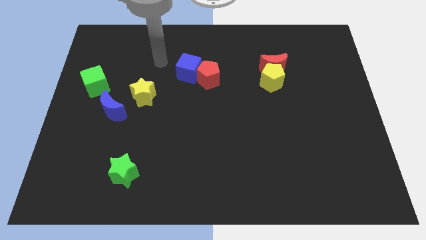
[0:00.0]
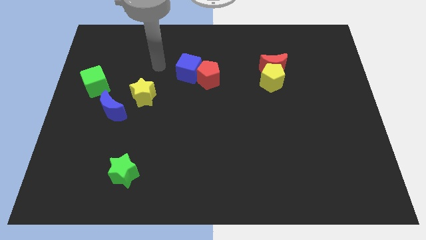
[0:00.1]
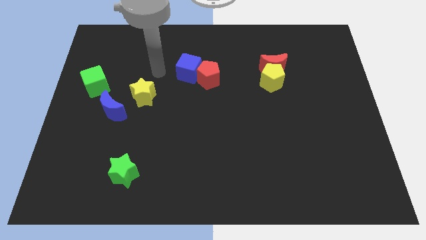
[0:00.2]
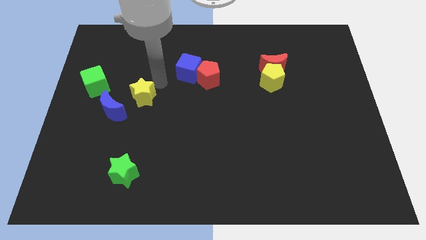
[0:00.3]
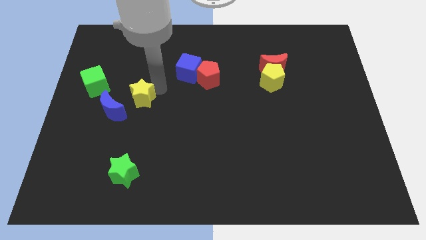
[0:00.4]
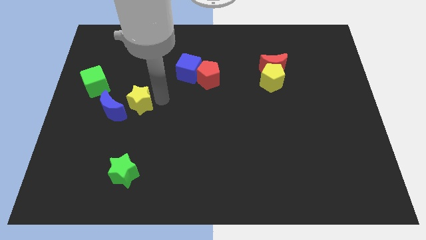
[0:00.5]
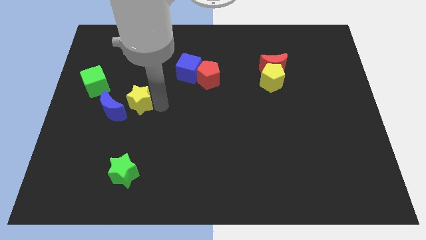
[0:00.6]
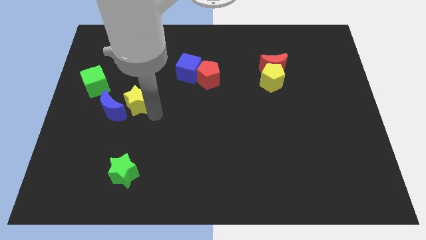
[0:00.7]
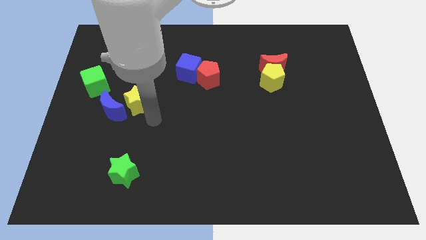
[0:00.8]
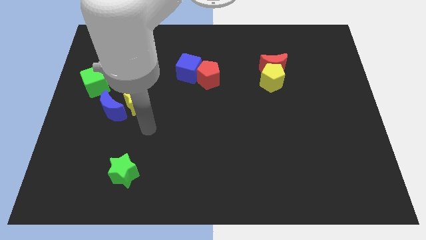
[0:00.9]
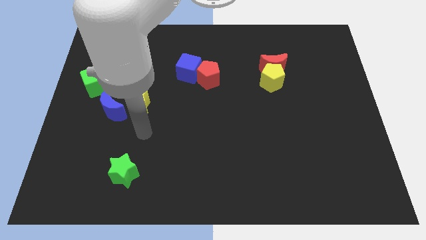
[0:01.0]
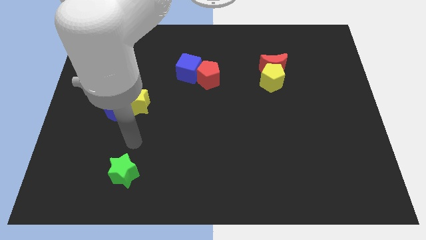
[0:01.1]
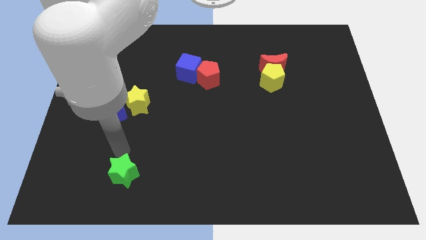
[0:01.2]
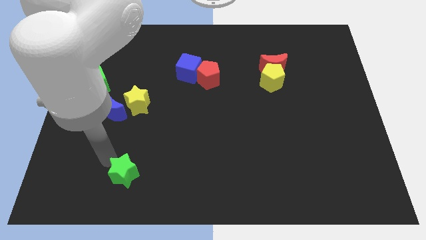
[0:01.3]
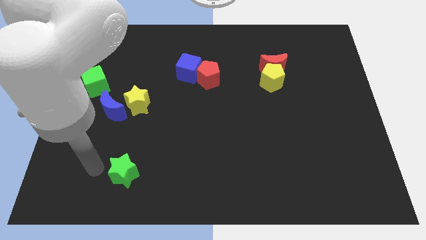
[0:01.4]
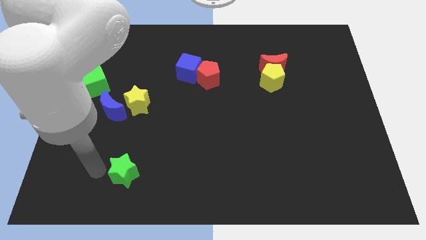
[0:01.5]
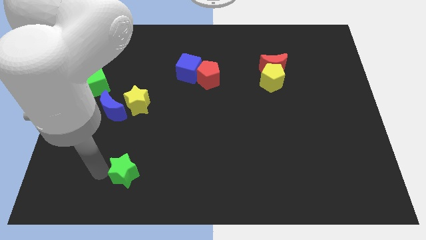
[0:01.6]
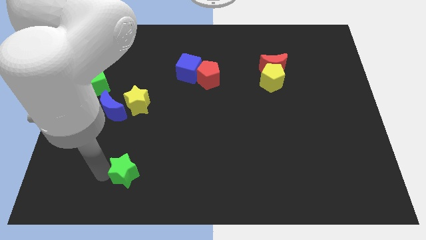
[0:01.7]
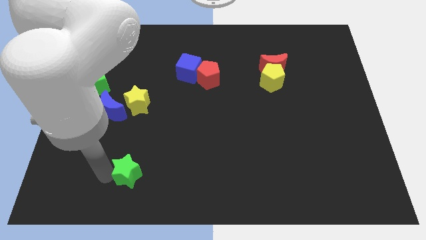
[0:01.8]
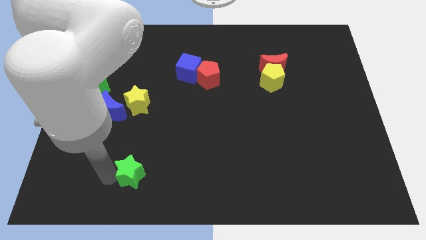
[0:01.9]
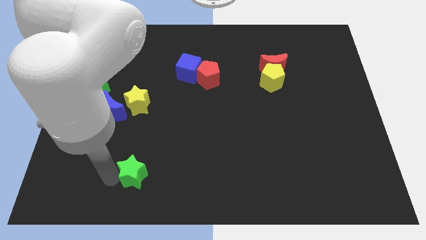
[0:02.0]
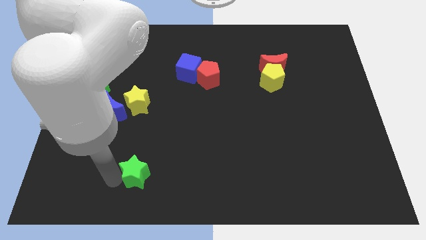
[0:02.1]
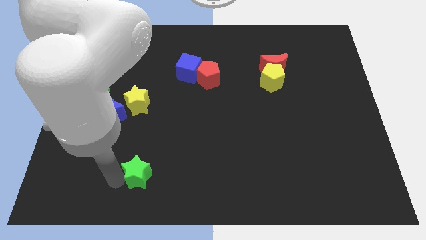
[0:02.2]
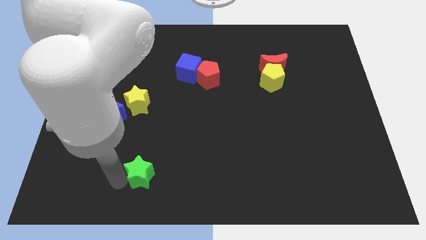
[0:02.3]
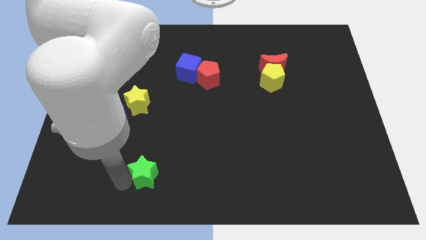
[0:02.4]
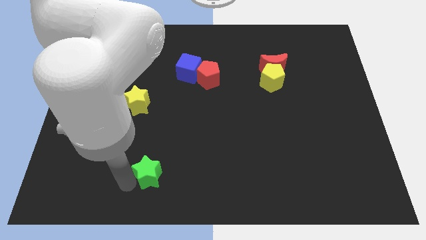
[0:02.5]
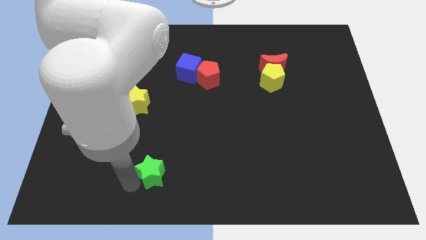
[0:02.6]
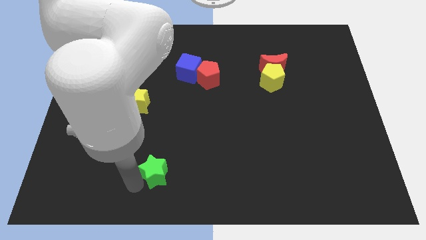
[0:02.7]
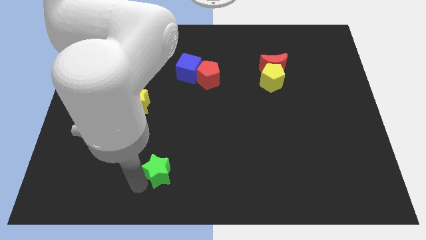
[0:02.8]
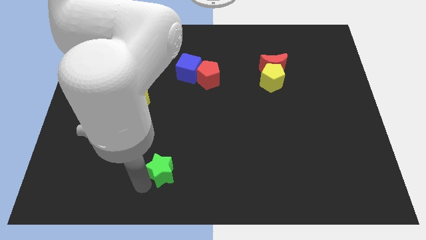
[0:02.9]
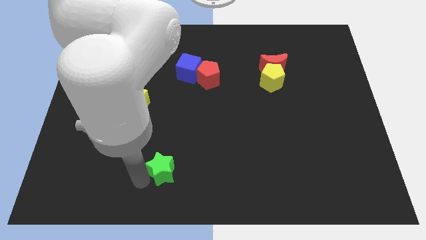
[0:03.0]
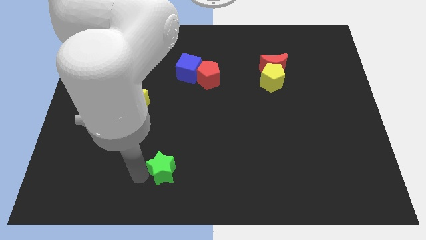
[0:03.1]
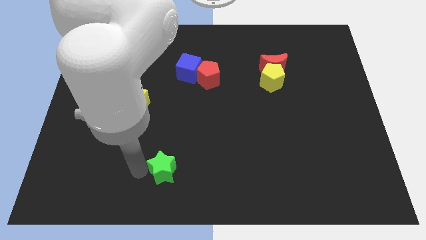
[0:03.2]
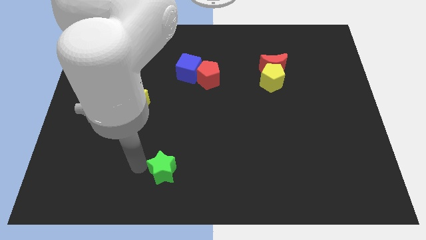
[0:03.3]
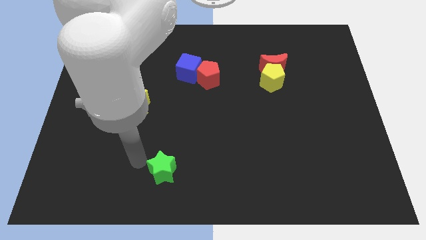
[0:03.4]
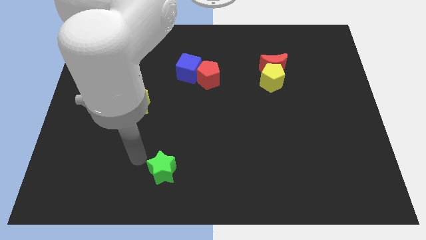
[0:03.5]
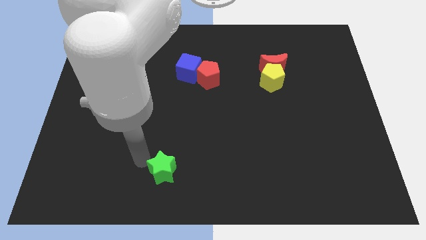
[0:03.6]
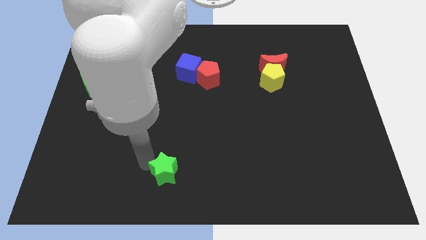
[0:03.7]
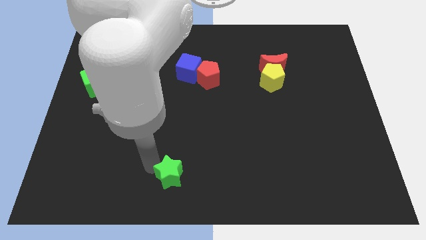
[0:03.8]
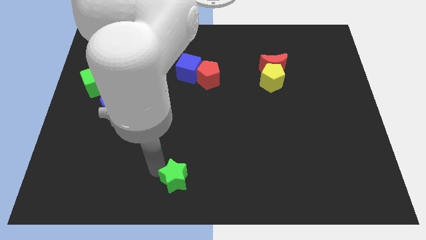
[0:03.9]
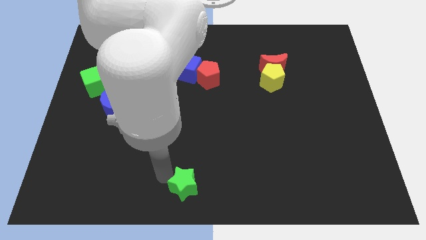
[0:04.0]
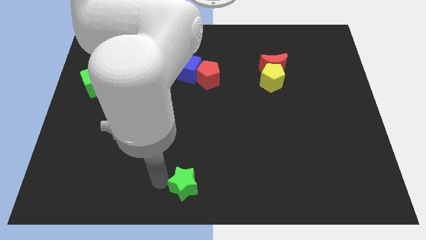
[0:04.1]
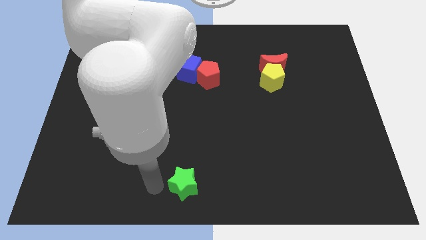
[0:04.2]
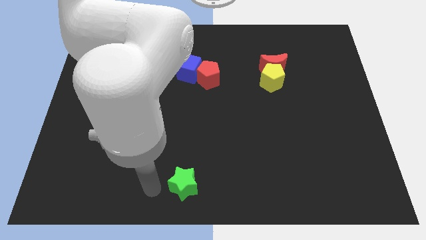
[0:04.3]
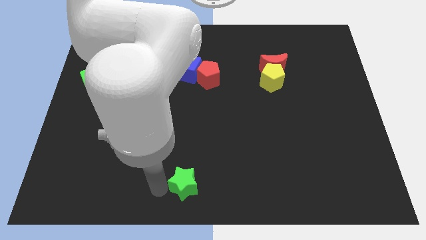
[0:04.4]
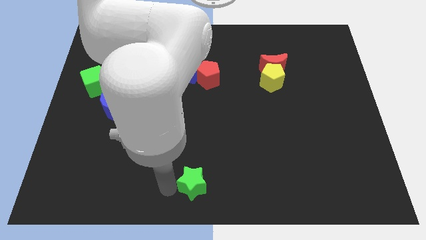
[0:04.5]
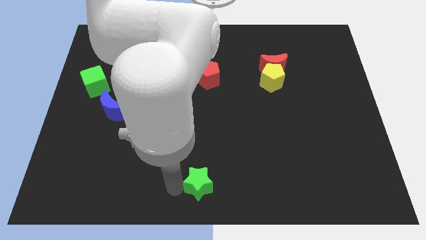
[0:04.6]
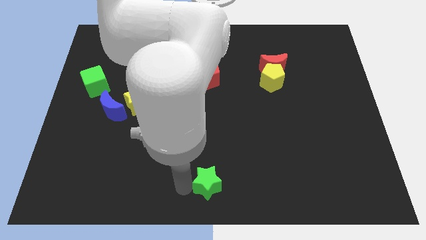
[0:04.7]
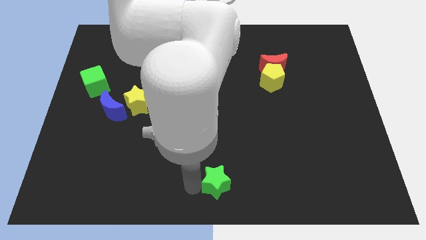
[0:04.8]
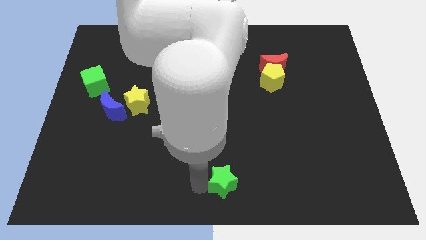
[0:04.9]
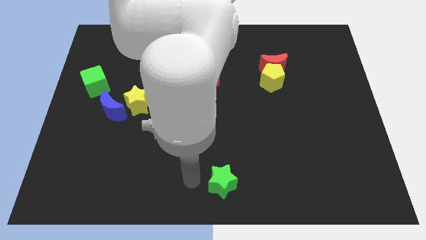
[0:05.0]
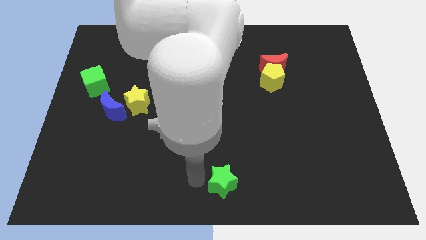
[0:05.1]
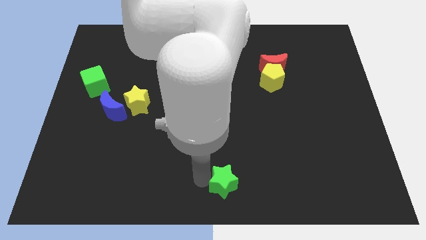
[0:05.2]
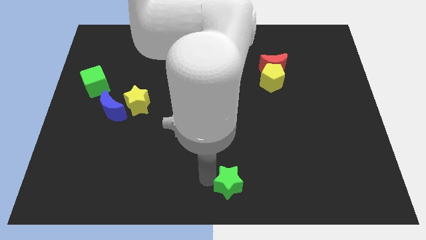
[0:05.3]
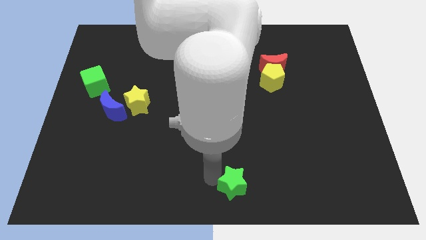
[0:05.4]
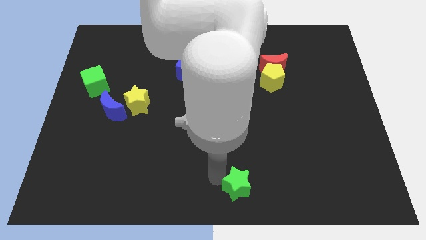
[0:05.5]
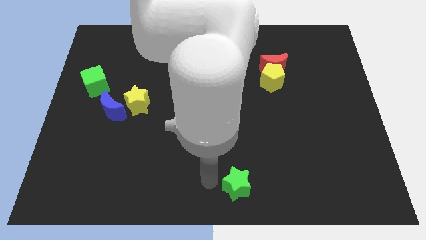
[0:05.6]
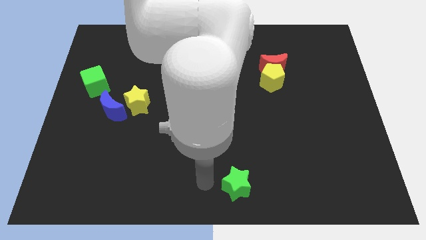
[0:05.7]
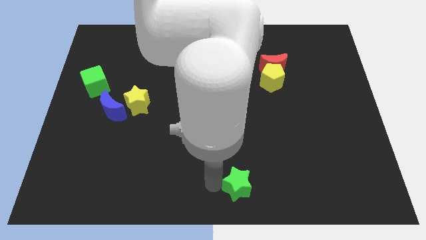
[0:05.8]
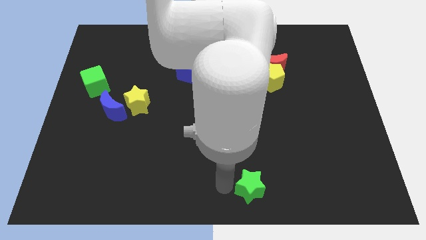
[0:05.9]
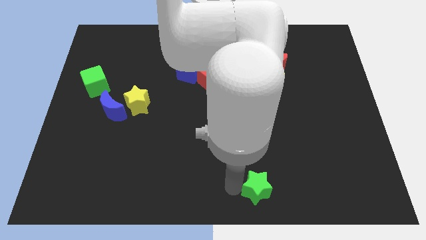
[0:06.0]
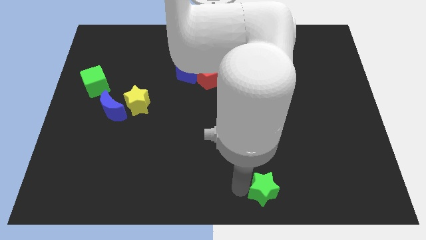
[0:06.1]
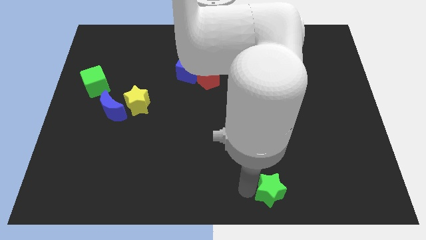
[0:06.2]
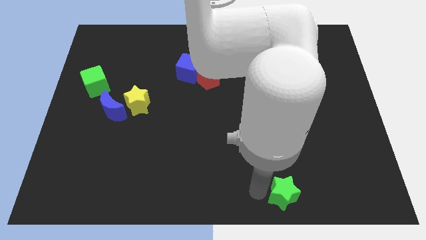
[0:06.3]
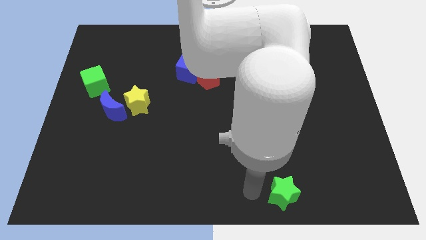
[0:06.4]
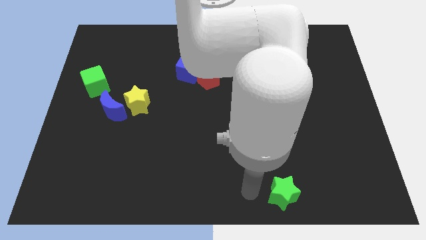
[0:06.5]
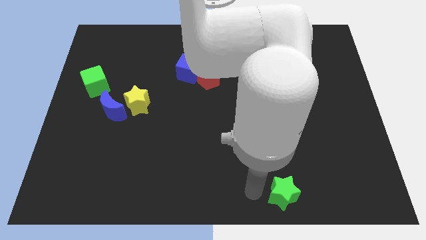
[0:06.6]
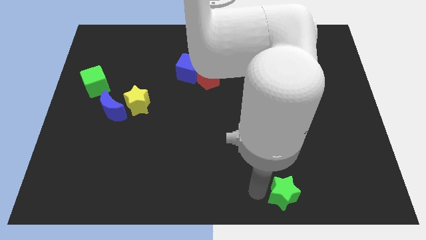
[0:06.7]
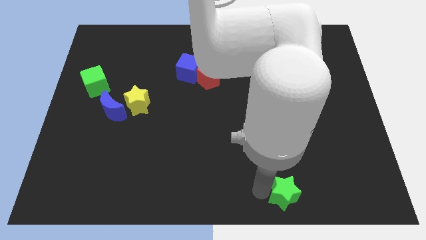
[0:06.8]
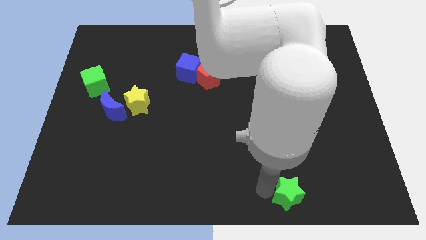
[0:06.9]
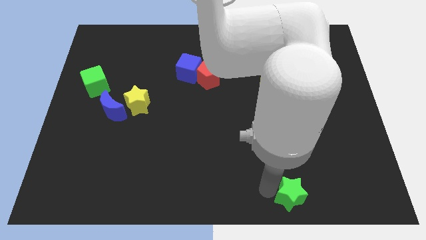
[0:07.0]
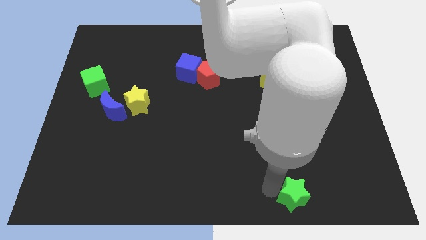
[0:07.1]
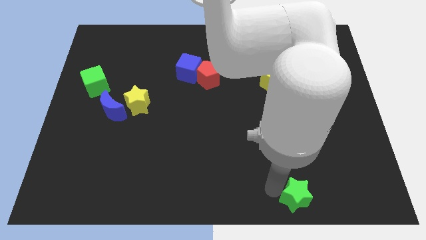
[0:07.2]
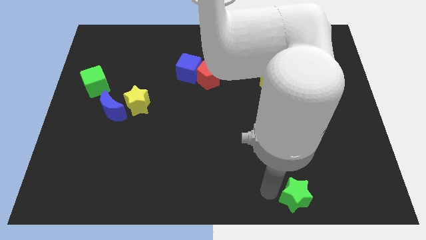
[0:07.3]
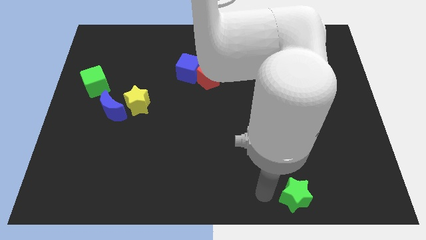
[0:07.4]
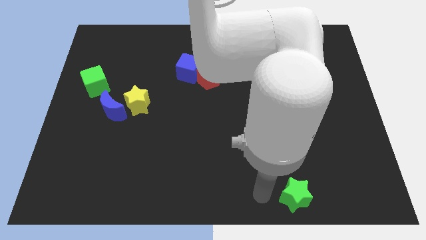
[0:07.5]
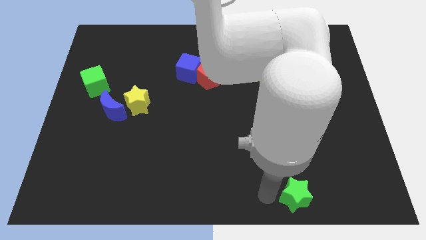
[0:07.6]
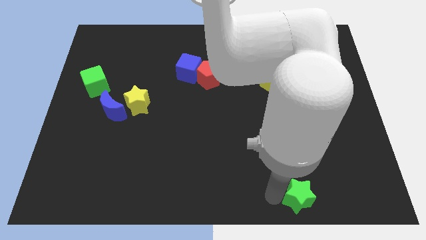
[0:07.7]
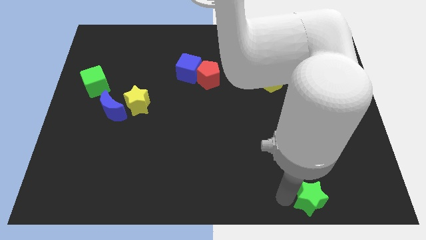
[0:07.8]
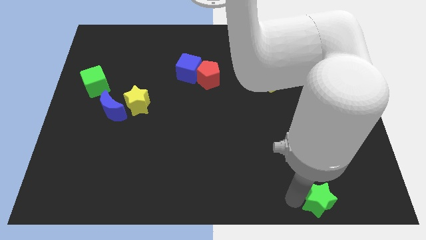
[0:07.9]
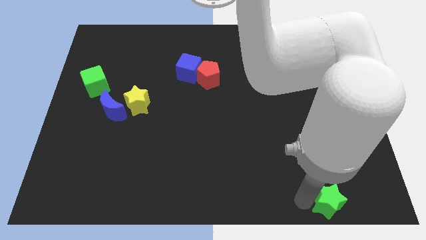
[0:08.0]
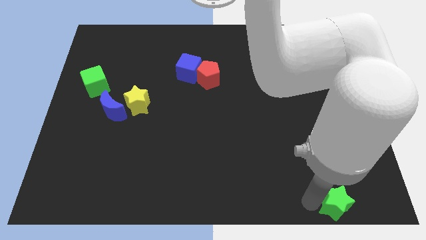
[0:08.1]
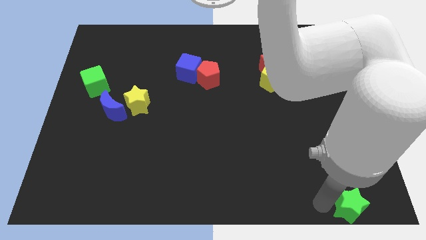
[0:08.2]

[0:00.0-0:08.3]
push the green star to the bottom right corner
